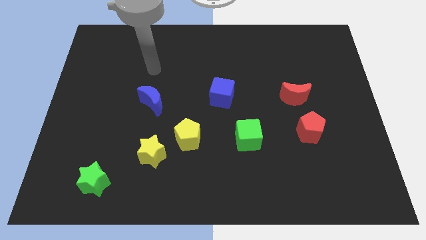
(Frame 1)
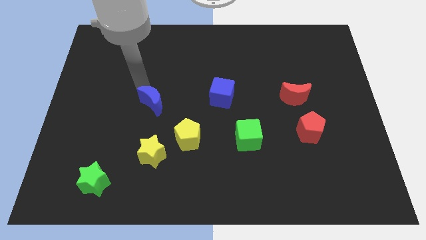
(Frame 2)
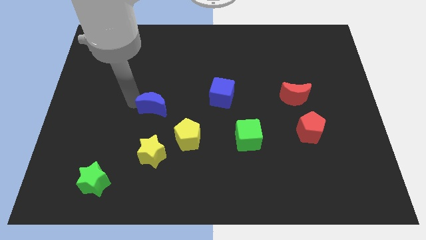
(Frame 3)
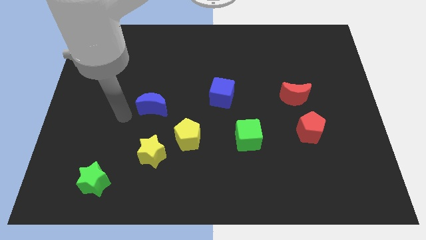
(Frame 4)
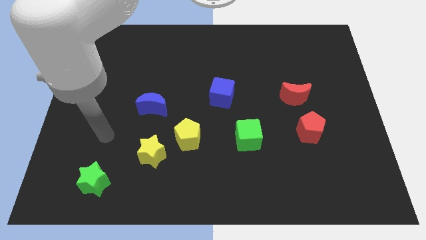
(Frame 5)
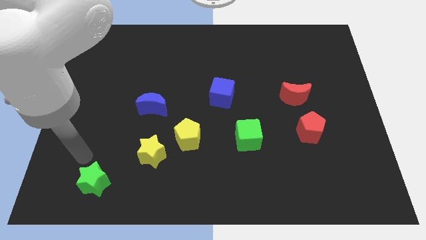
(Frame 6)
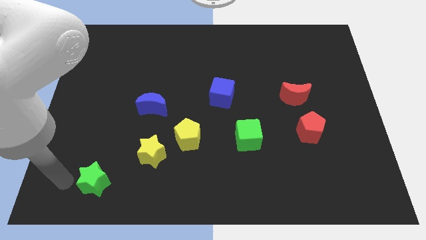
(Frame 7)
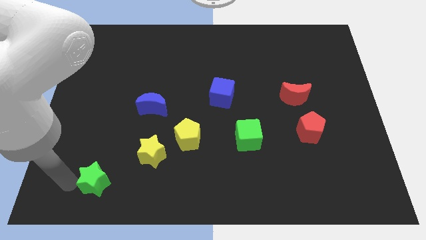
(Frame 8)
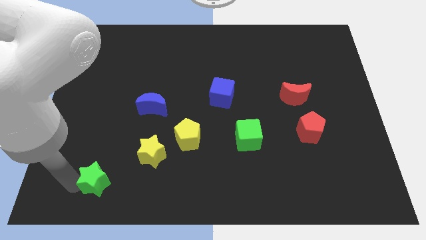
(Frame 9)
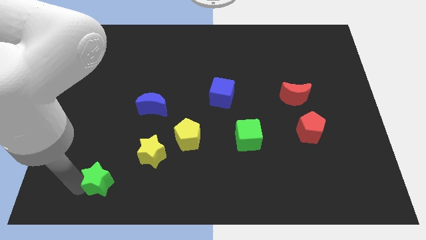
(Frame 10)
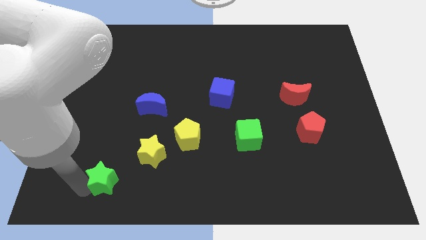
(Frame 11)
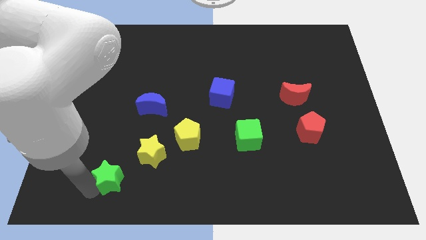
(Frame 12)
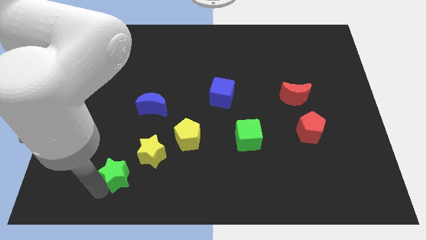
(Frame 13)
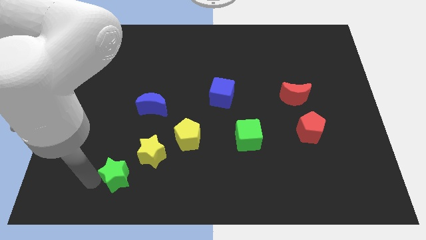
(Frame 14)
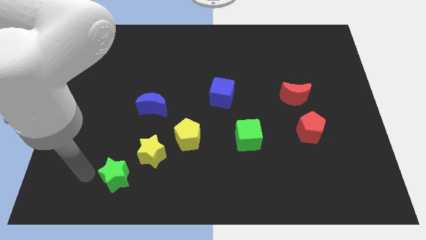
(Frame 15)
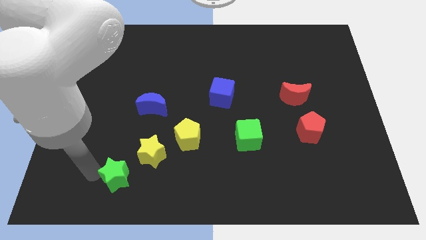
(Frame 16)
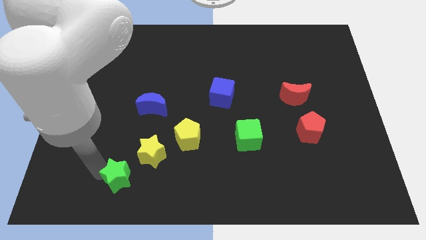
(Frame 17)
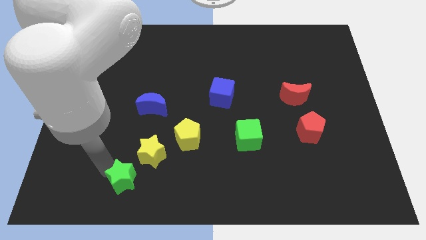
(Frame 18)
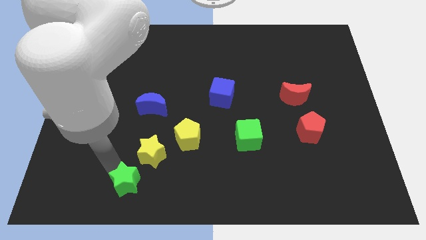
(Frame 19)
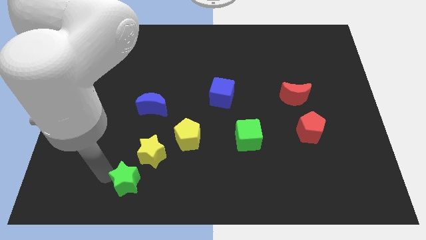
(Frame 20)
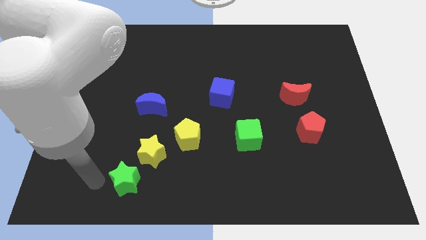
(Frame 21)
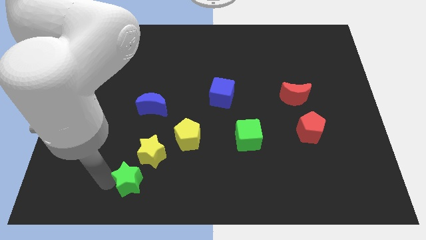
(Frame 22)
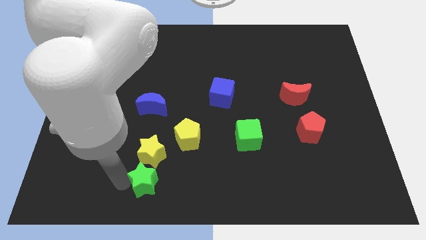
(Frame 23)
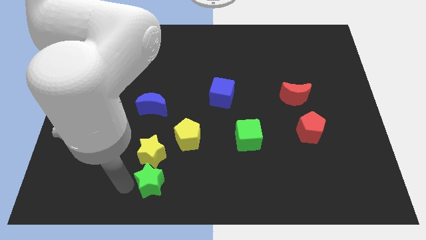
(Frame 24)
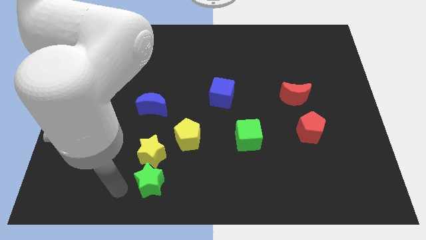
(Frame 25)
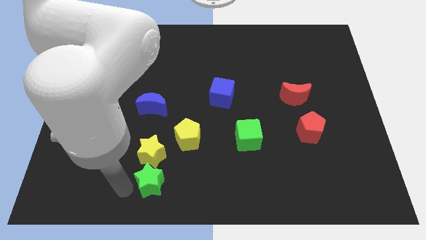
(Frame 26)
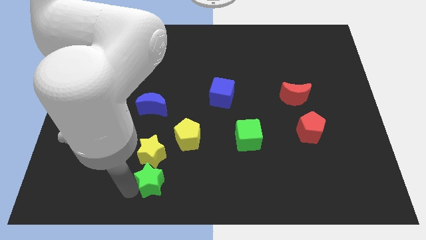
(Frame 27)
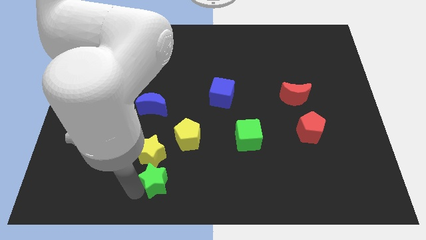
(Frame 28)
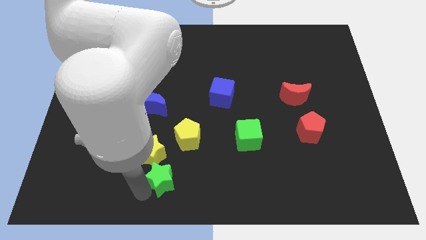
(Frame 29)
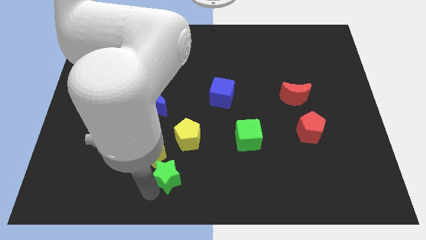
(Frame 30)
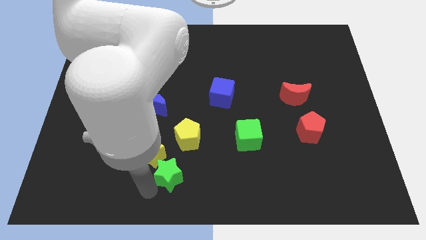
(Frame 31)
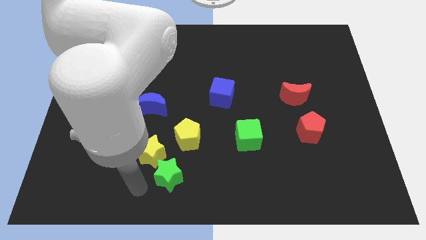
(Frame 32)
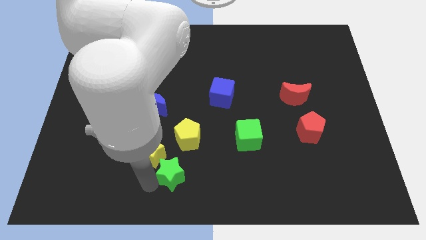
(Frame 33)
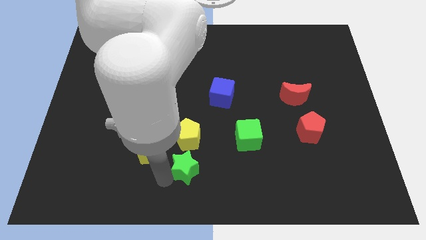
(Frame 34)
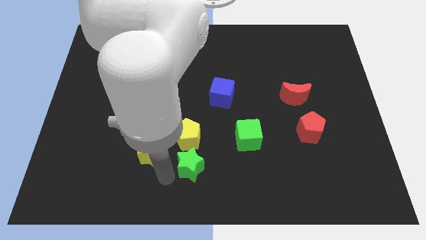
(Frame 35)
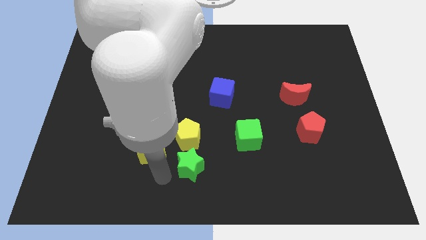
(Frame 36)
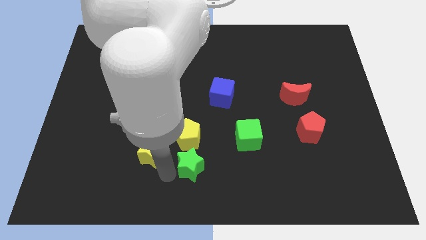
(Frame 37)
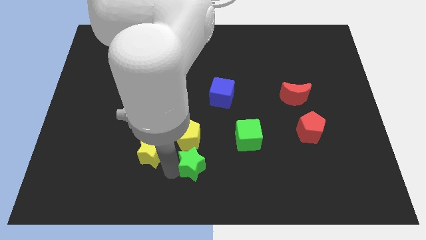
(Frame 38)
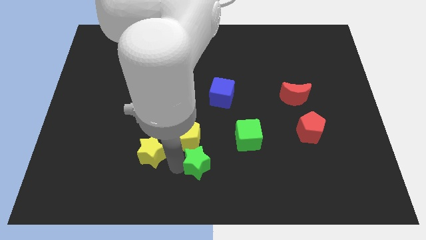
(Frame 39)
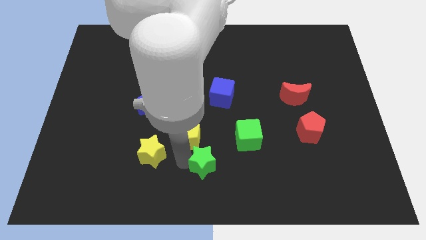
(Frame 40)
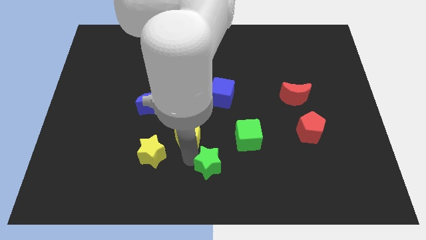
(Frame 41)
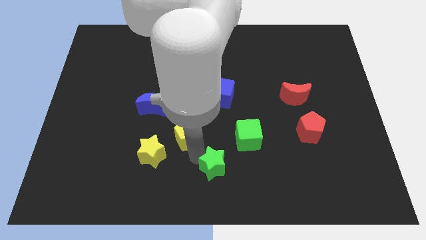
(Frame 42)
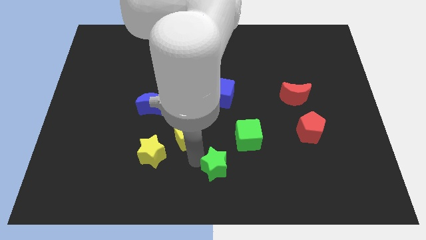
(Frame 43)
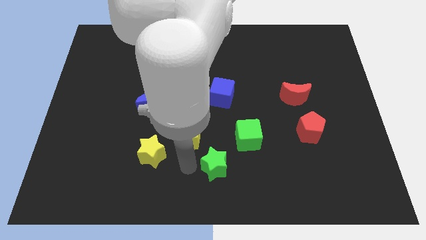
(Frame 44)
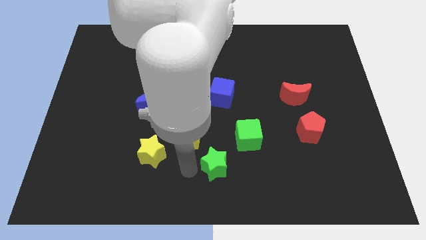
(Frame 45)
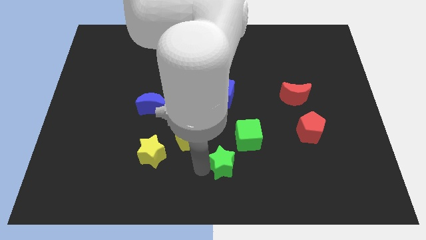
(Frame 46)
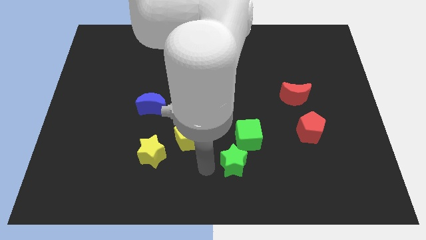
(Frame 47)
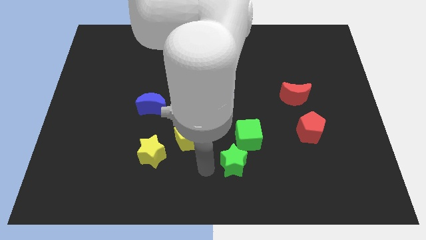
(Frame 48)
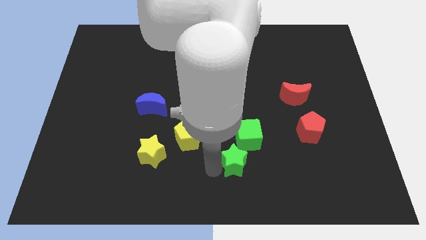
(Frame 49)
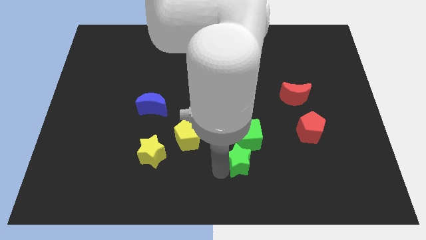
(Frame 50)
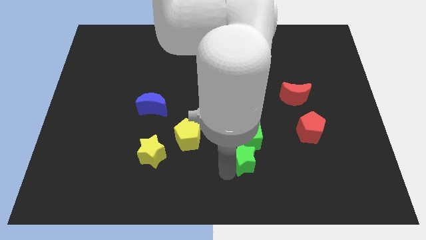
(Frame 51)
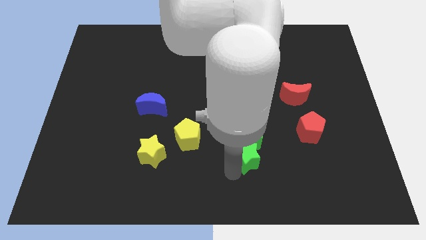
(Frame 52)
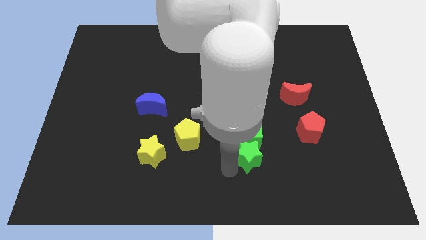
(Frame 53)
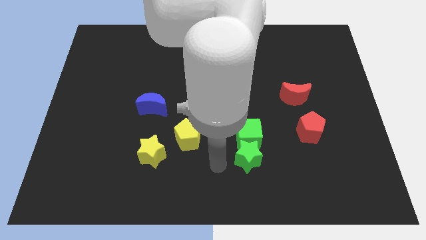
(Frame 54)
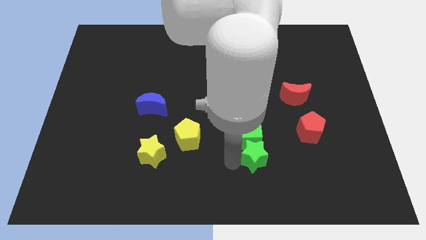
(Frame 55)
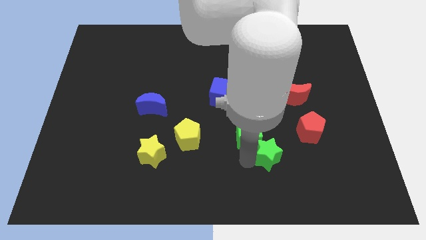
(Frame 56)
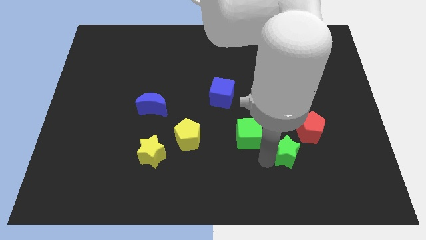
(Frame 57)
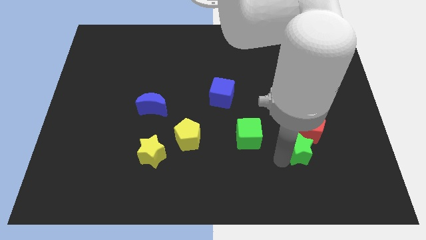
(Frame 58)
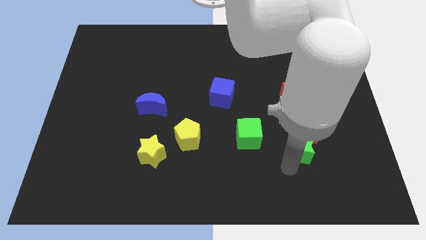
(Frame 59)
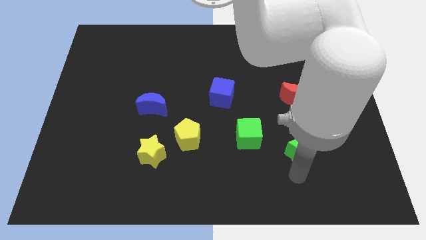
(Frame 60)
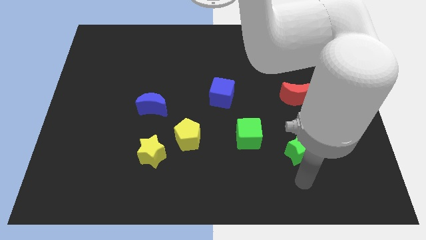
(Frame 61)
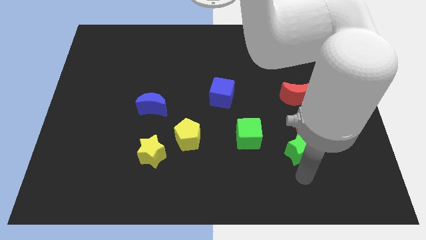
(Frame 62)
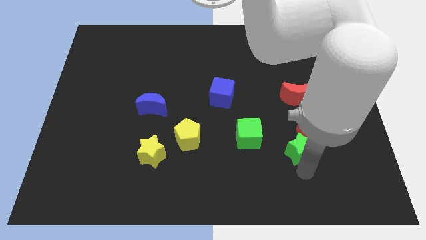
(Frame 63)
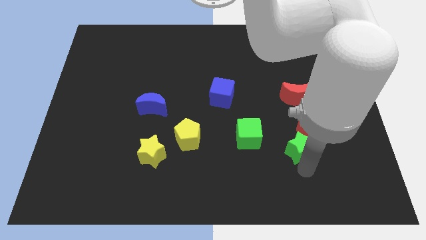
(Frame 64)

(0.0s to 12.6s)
move the green star towards the red pentagon

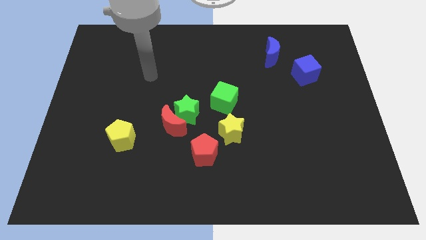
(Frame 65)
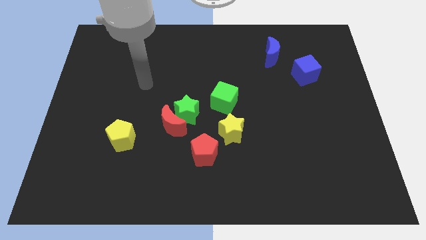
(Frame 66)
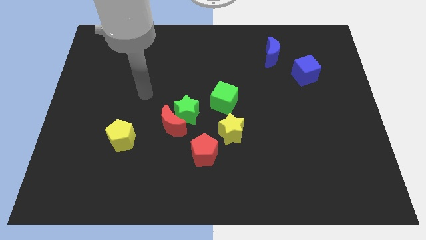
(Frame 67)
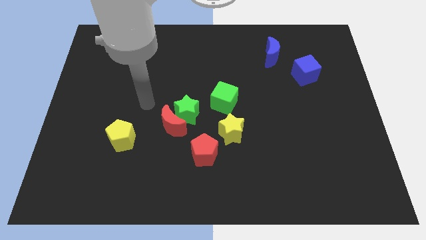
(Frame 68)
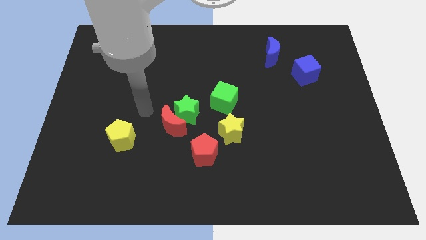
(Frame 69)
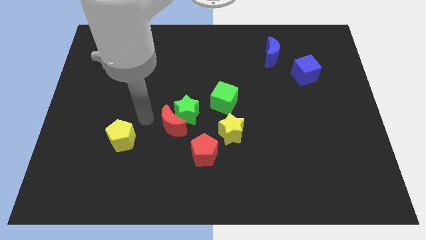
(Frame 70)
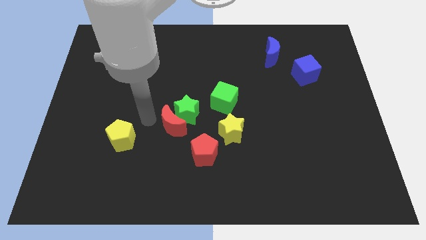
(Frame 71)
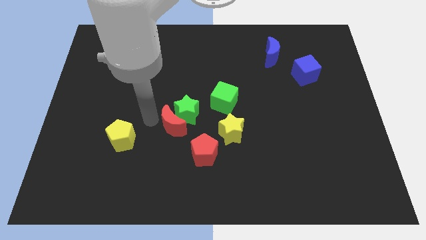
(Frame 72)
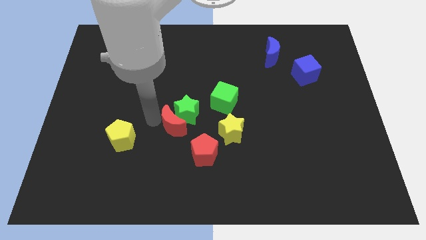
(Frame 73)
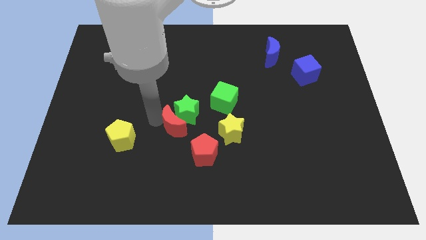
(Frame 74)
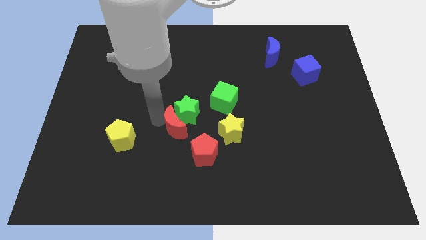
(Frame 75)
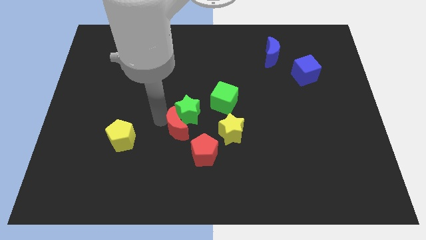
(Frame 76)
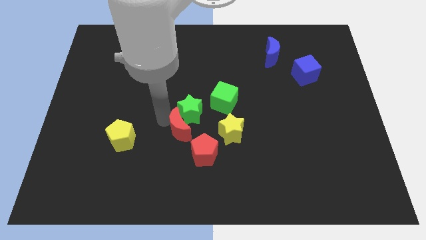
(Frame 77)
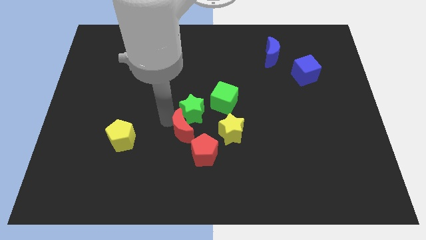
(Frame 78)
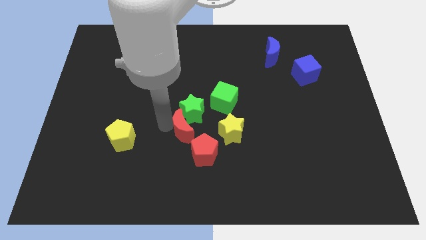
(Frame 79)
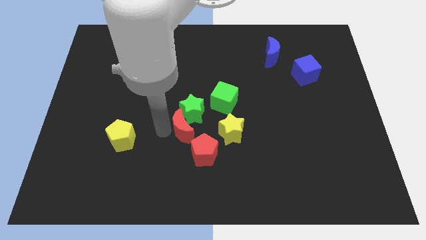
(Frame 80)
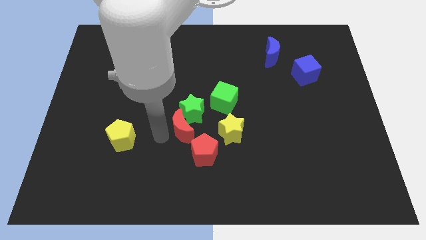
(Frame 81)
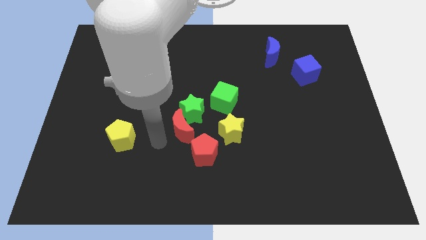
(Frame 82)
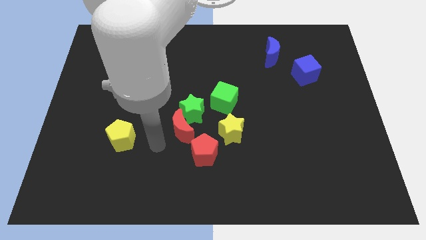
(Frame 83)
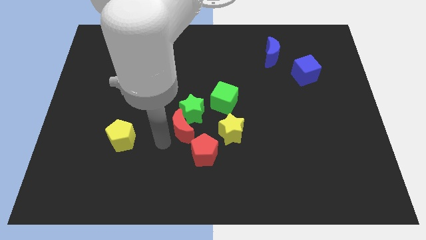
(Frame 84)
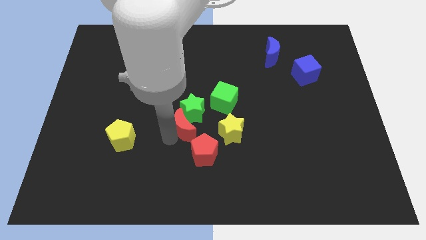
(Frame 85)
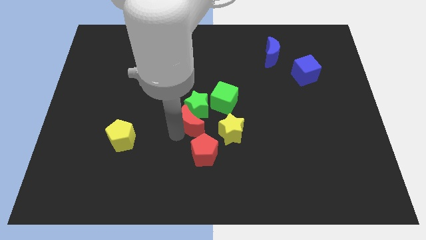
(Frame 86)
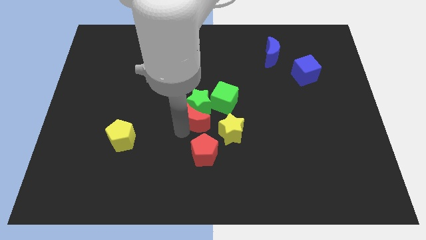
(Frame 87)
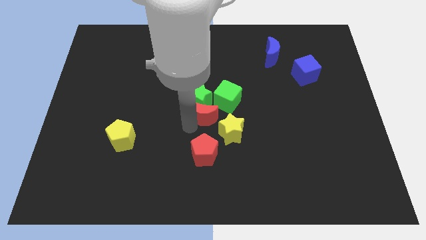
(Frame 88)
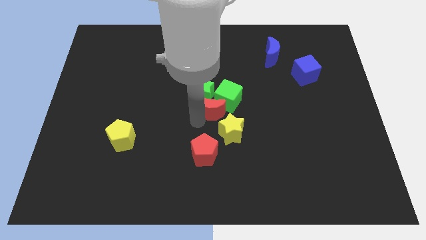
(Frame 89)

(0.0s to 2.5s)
slide the red moon close to the green cube
